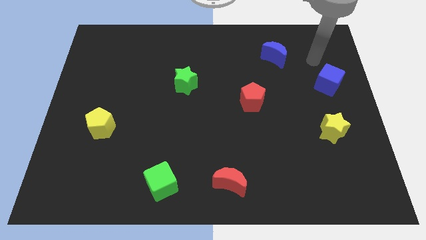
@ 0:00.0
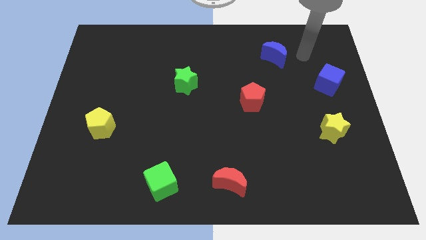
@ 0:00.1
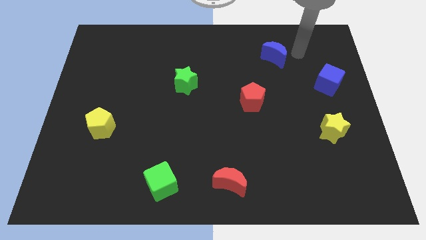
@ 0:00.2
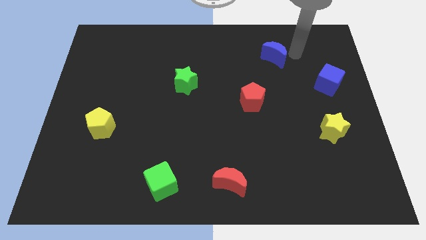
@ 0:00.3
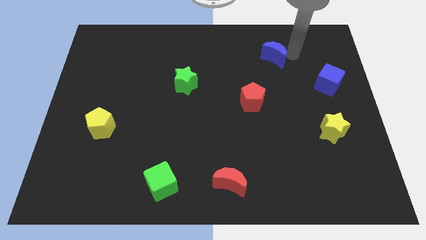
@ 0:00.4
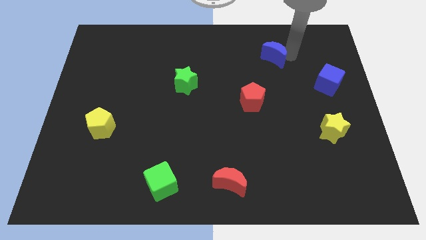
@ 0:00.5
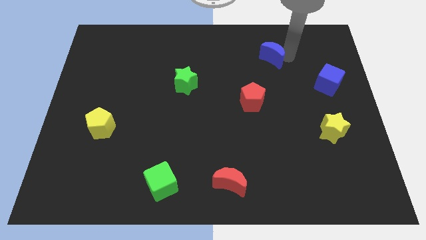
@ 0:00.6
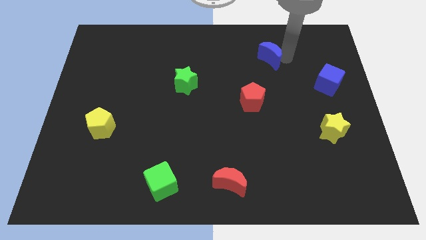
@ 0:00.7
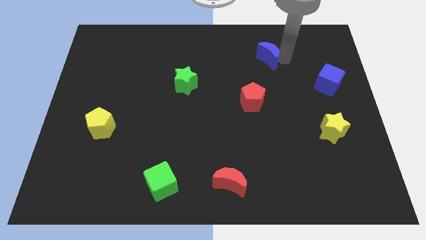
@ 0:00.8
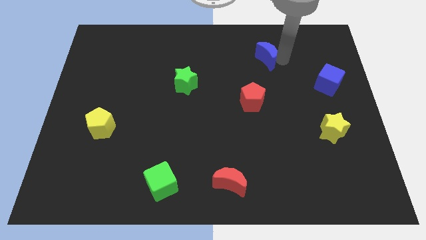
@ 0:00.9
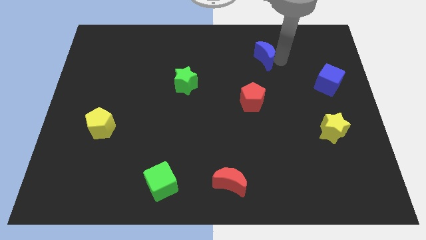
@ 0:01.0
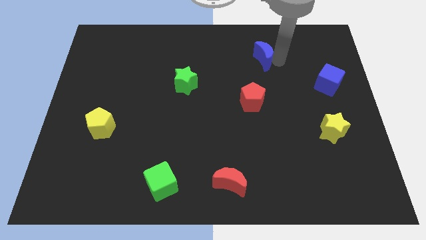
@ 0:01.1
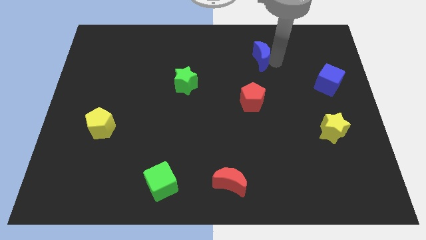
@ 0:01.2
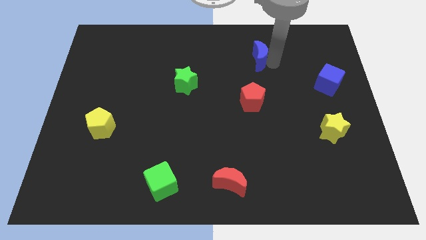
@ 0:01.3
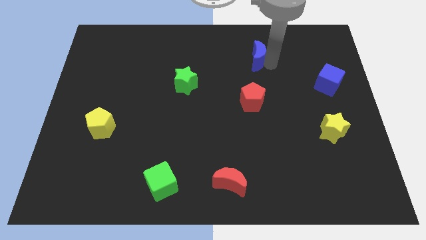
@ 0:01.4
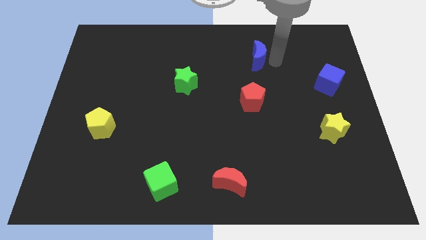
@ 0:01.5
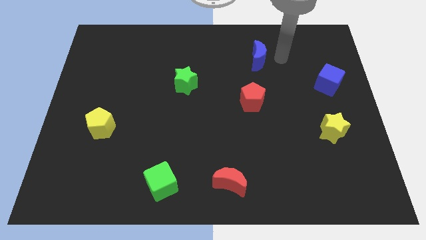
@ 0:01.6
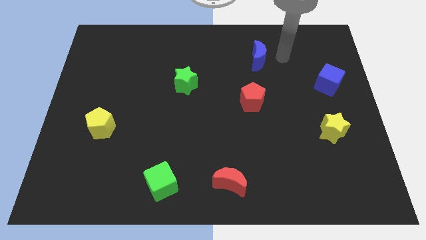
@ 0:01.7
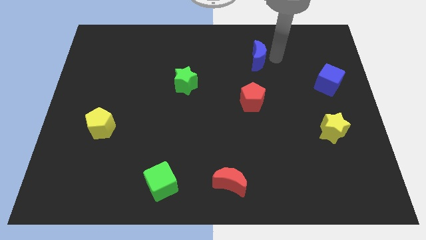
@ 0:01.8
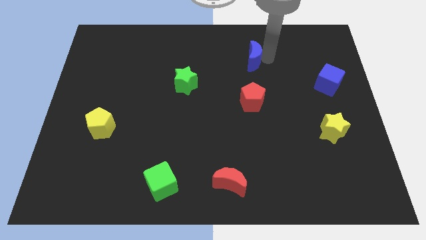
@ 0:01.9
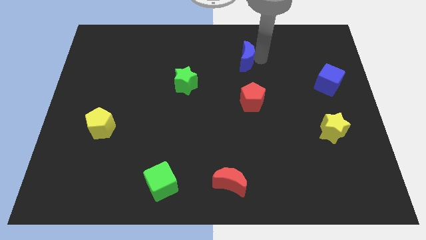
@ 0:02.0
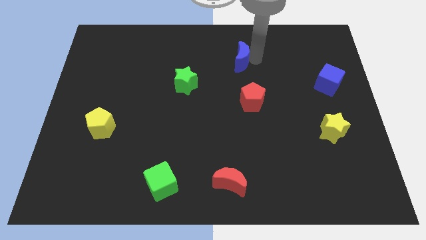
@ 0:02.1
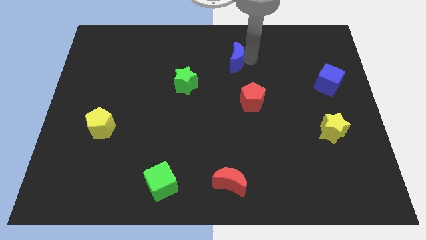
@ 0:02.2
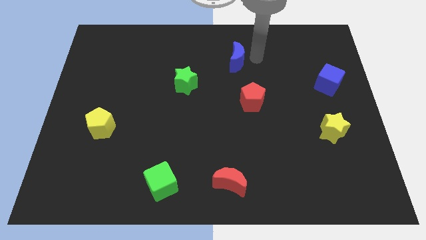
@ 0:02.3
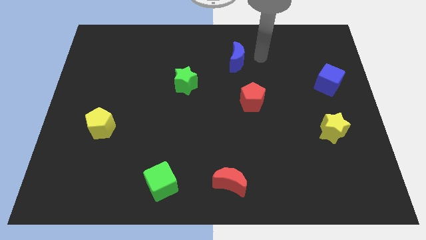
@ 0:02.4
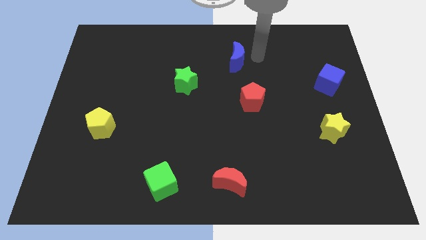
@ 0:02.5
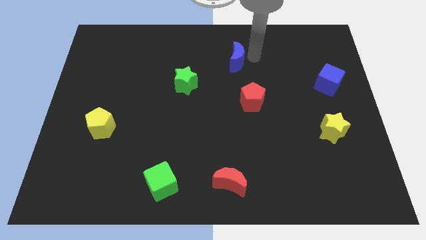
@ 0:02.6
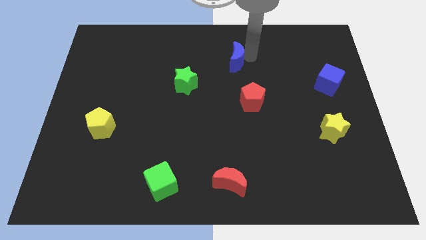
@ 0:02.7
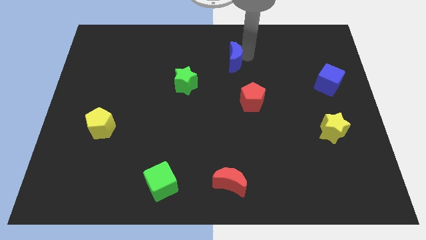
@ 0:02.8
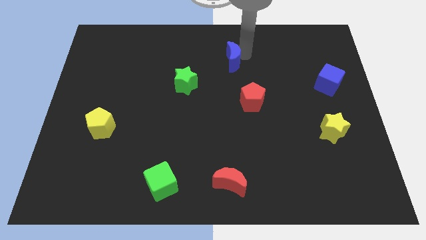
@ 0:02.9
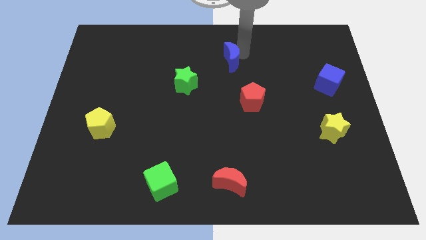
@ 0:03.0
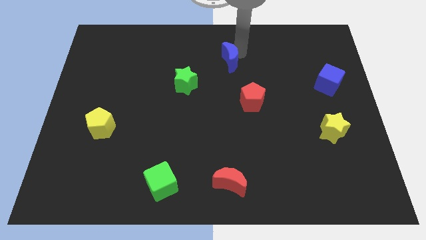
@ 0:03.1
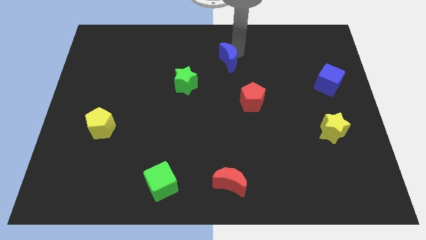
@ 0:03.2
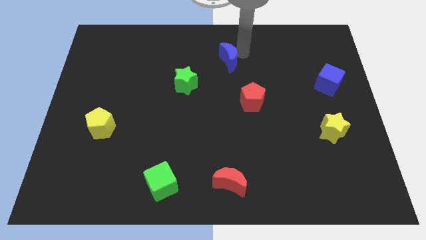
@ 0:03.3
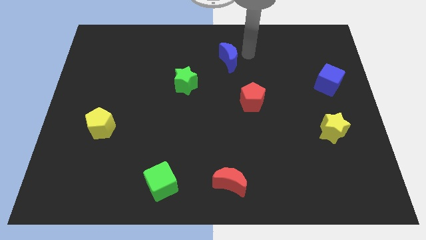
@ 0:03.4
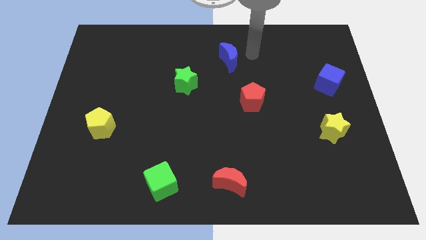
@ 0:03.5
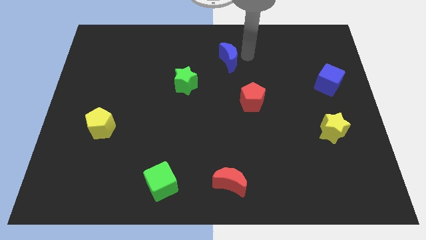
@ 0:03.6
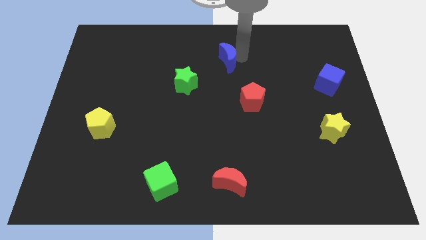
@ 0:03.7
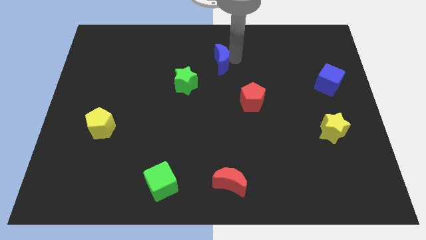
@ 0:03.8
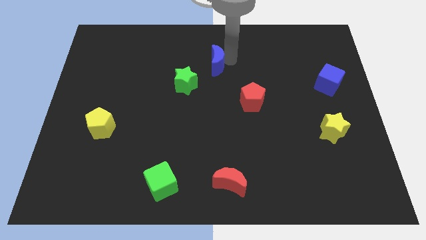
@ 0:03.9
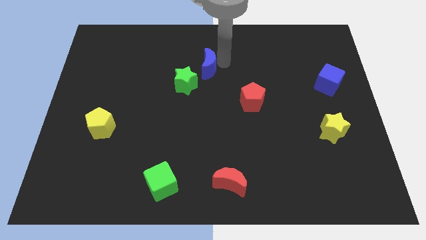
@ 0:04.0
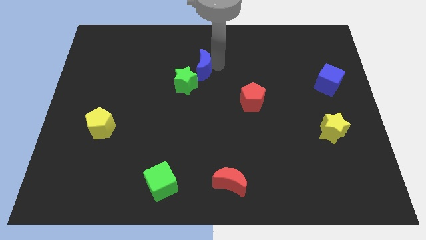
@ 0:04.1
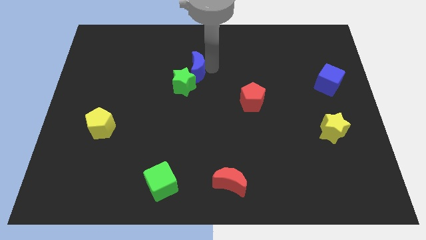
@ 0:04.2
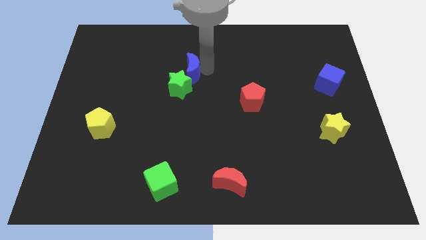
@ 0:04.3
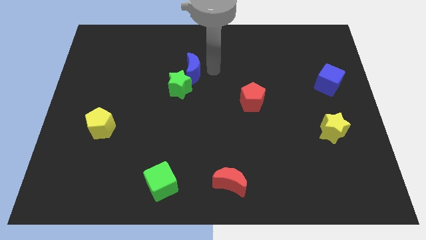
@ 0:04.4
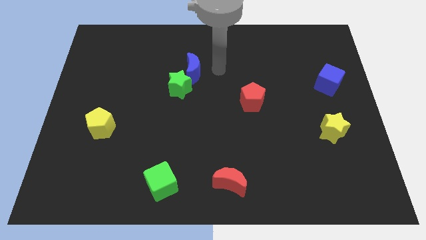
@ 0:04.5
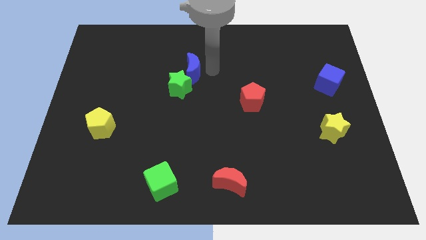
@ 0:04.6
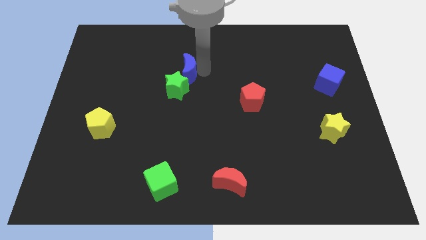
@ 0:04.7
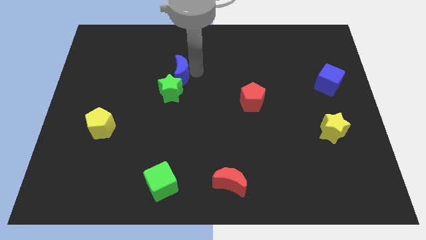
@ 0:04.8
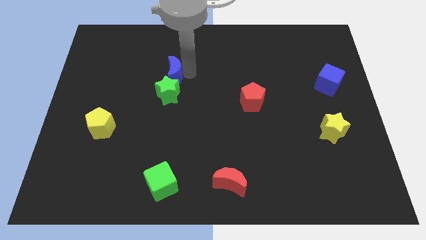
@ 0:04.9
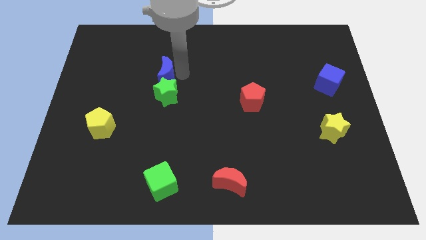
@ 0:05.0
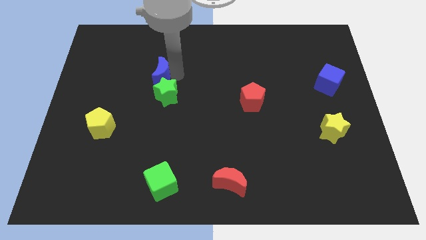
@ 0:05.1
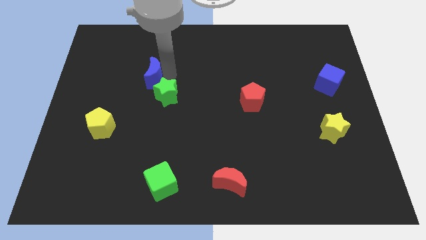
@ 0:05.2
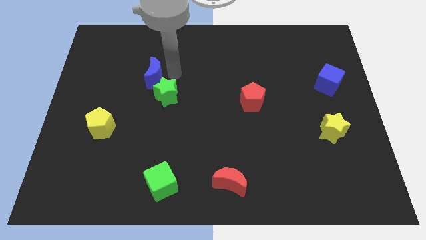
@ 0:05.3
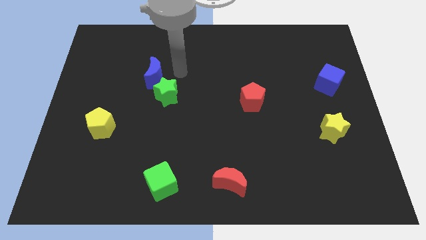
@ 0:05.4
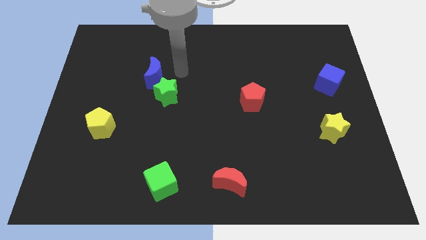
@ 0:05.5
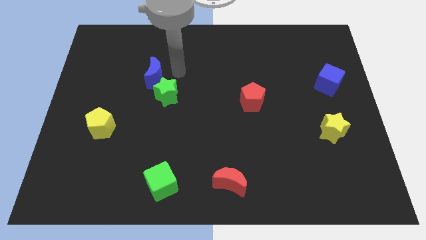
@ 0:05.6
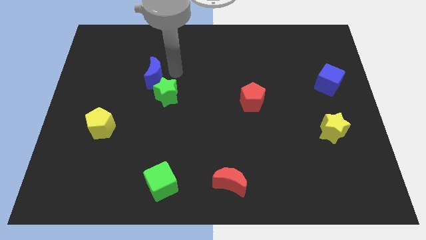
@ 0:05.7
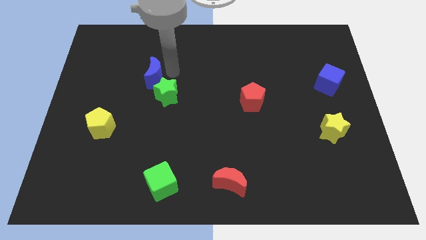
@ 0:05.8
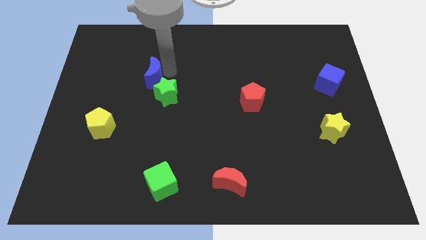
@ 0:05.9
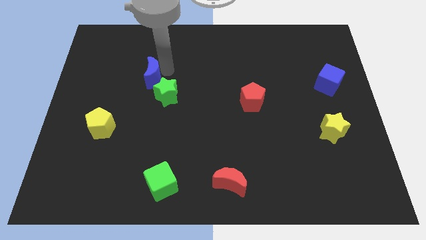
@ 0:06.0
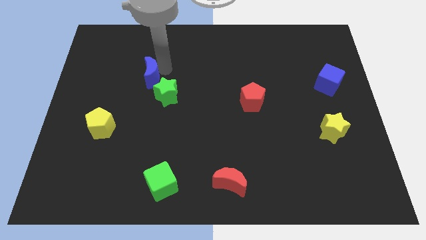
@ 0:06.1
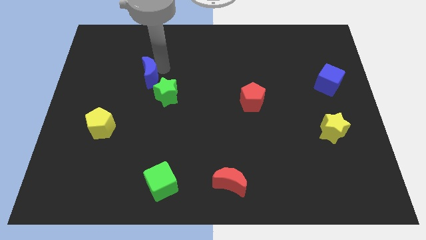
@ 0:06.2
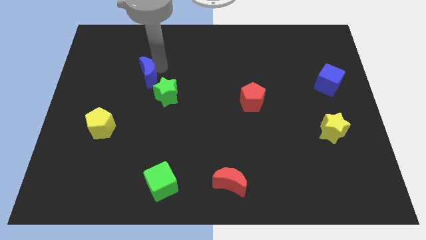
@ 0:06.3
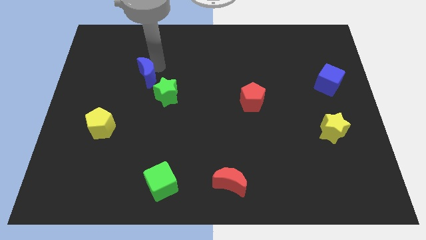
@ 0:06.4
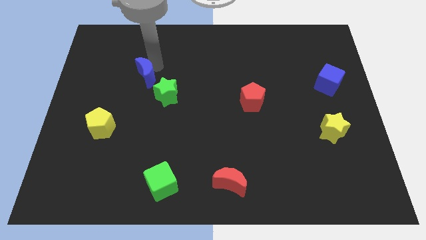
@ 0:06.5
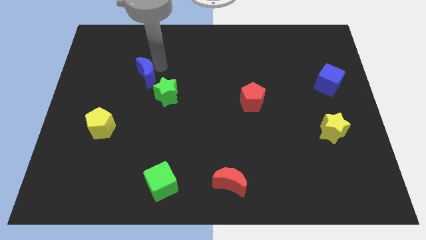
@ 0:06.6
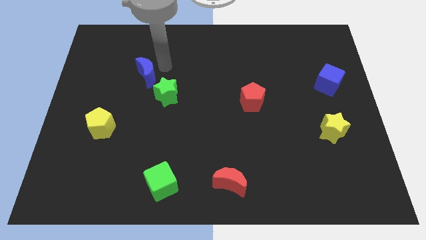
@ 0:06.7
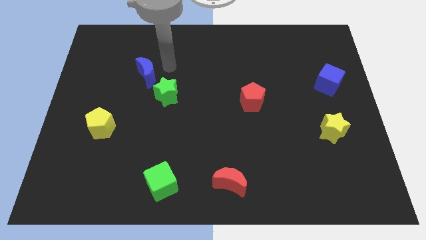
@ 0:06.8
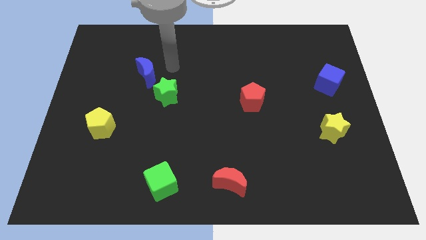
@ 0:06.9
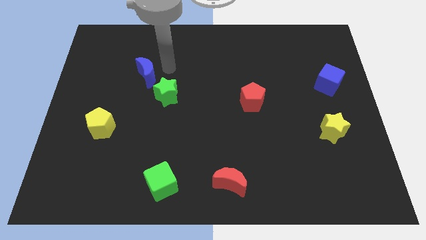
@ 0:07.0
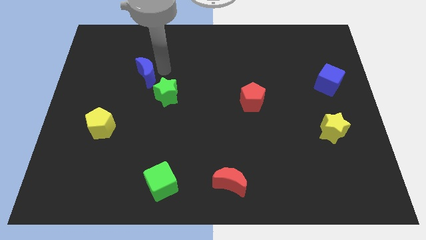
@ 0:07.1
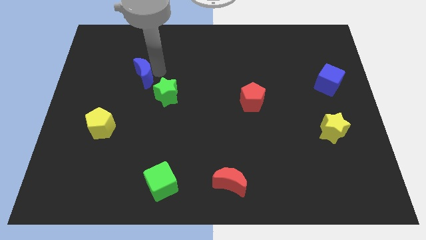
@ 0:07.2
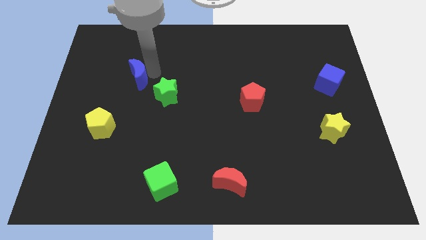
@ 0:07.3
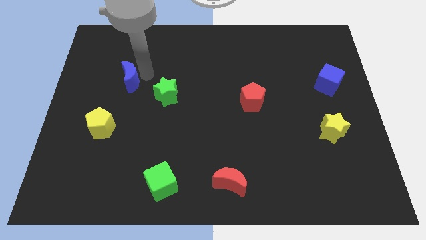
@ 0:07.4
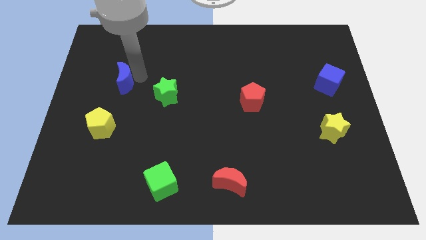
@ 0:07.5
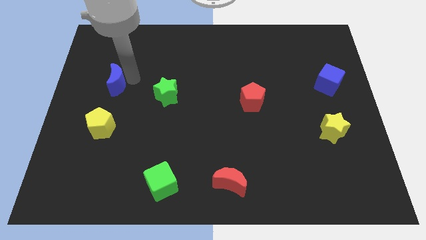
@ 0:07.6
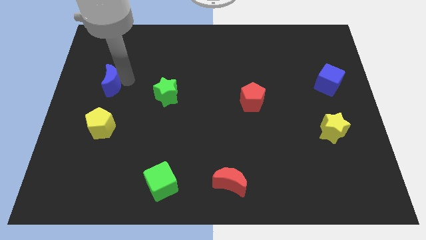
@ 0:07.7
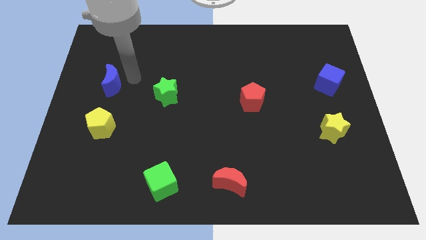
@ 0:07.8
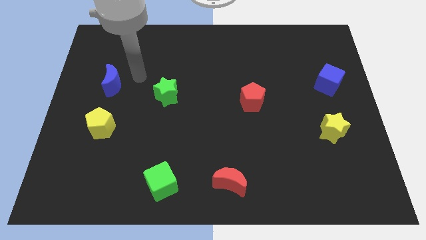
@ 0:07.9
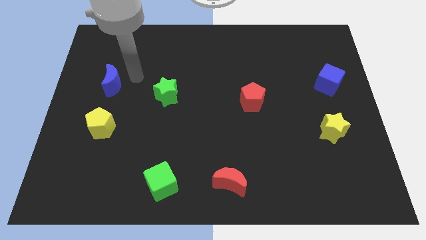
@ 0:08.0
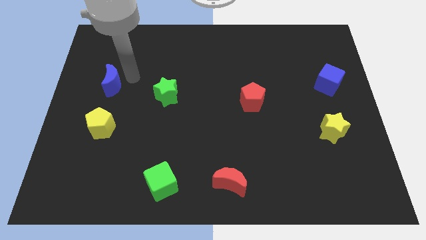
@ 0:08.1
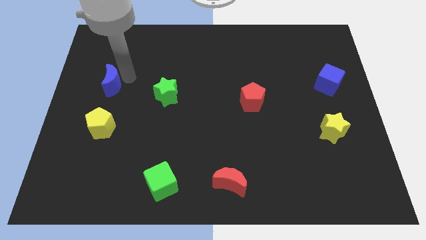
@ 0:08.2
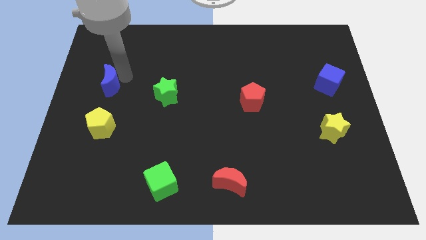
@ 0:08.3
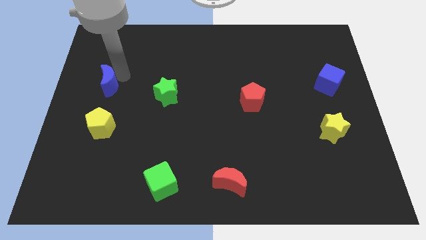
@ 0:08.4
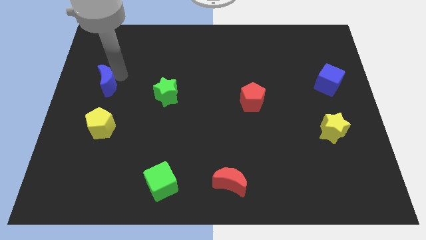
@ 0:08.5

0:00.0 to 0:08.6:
move the blue moon to the left side of the board
